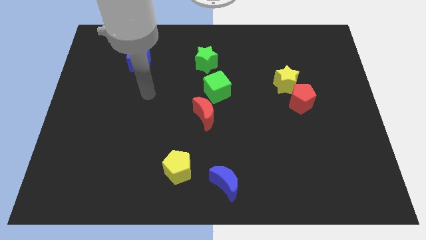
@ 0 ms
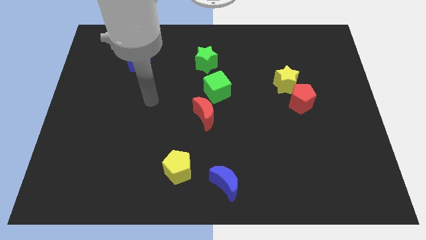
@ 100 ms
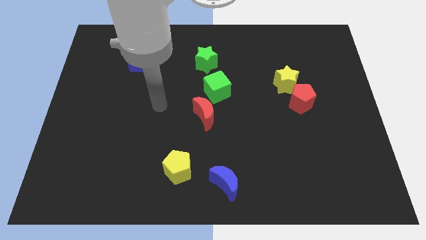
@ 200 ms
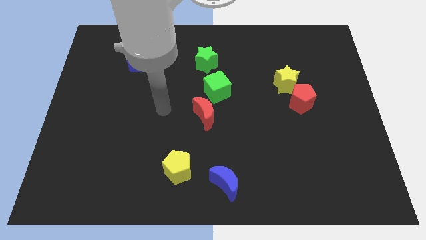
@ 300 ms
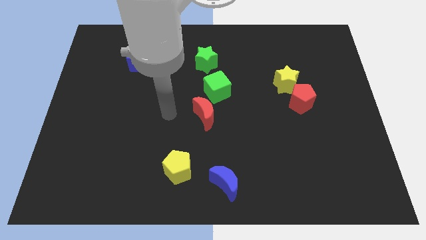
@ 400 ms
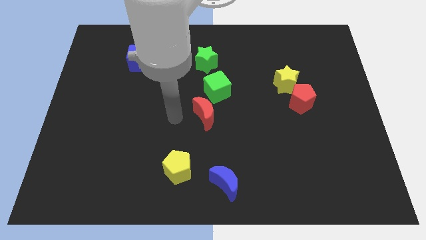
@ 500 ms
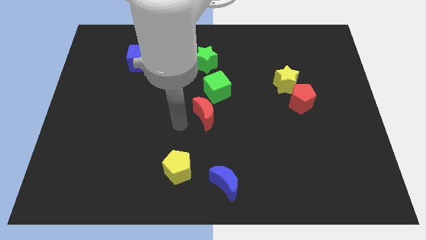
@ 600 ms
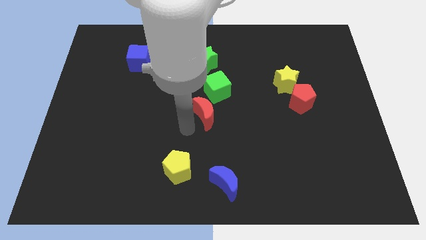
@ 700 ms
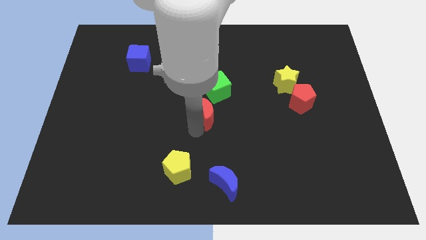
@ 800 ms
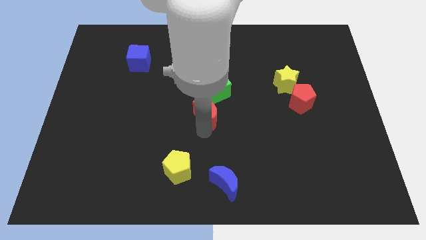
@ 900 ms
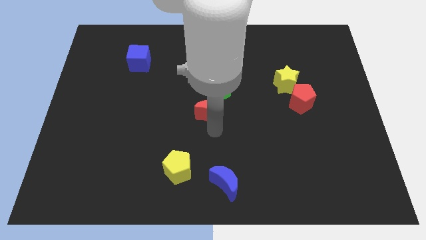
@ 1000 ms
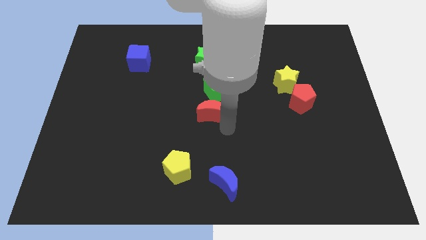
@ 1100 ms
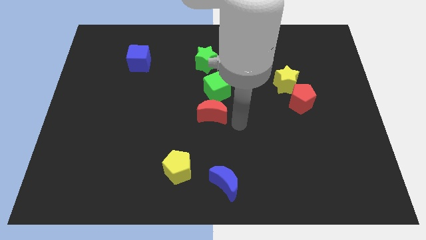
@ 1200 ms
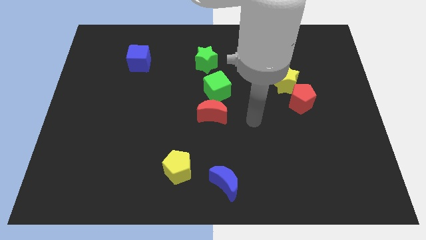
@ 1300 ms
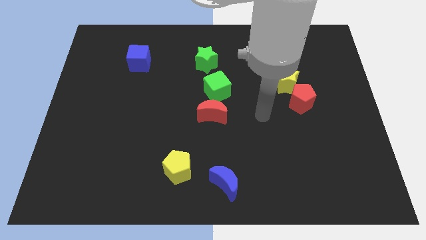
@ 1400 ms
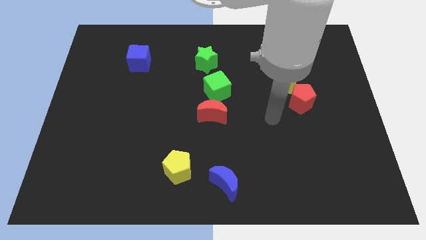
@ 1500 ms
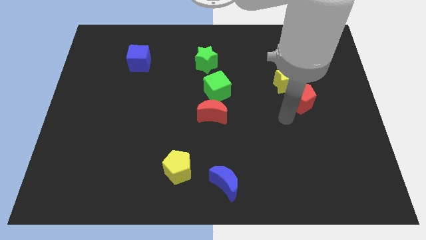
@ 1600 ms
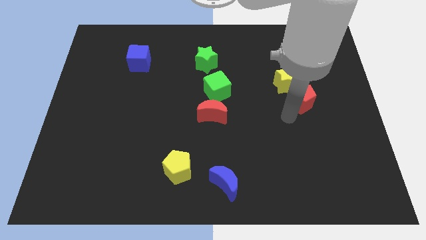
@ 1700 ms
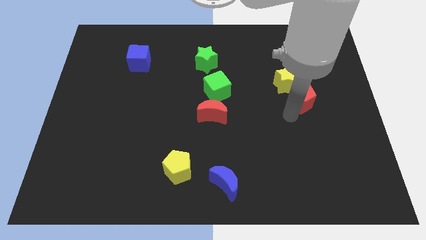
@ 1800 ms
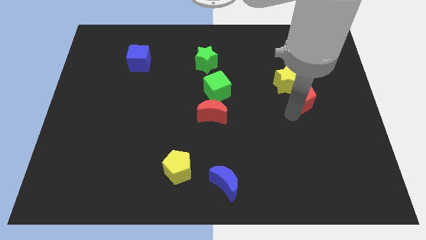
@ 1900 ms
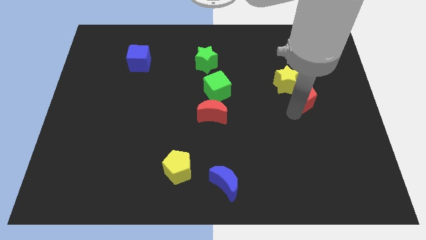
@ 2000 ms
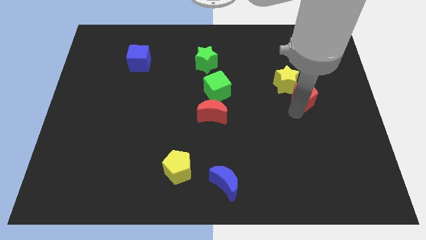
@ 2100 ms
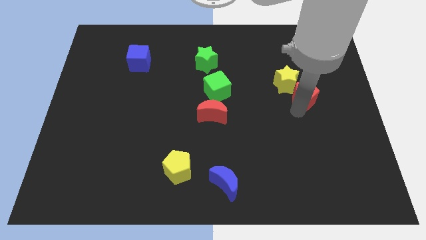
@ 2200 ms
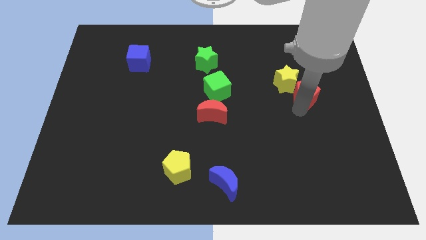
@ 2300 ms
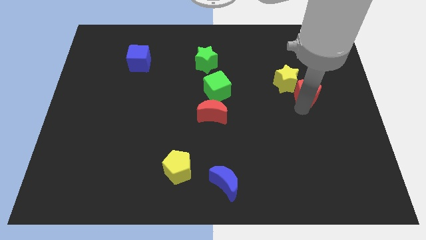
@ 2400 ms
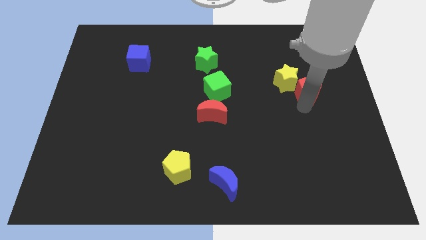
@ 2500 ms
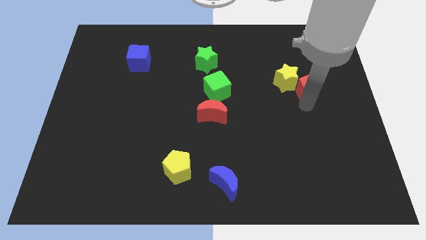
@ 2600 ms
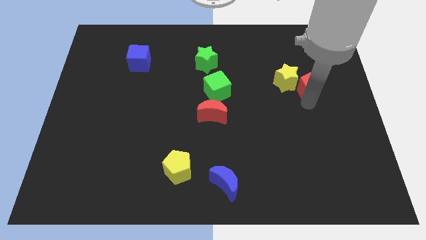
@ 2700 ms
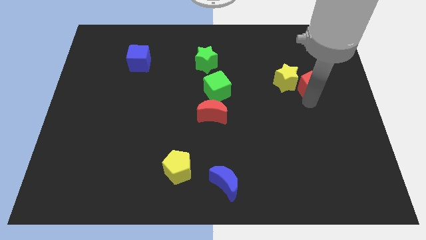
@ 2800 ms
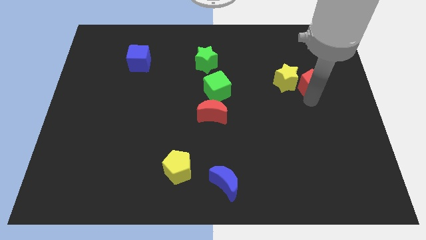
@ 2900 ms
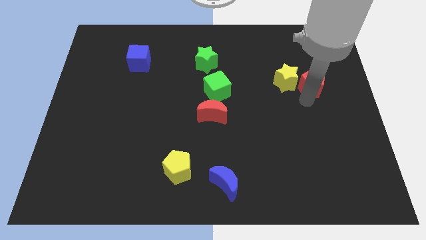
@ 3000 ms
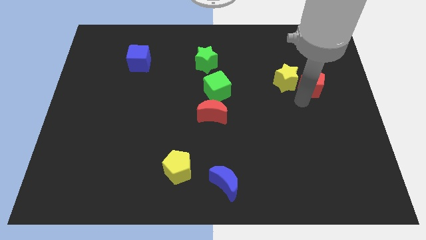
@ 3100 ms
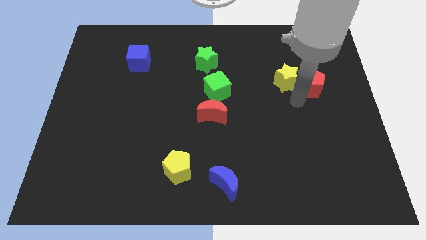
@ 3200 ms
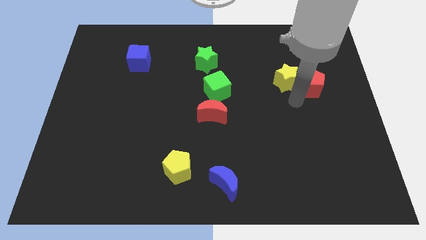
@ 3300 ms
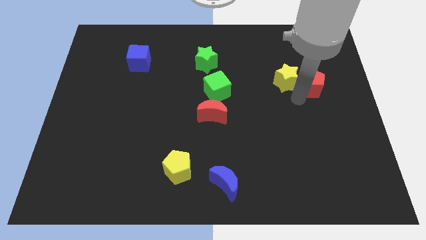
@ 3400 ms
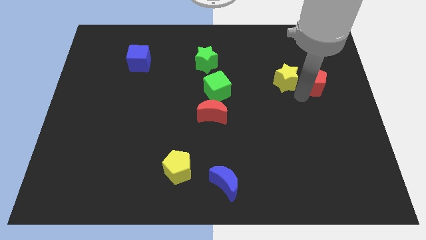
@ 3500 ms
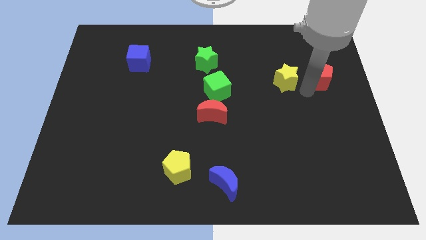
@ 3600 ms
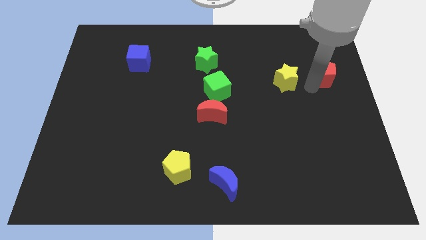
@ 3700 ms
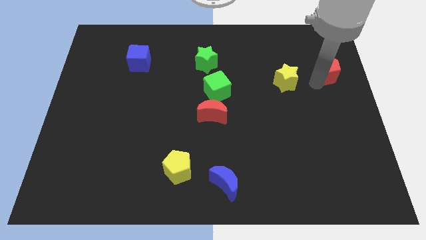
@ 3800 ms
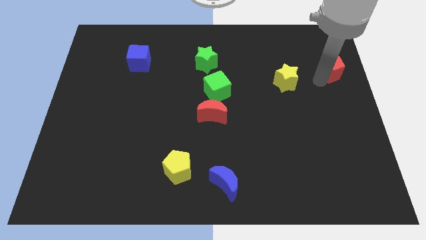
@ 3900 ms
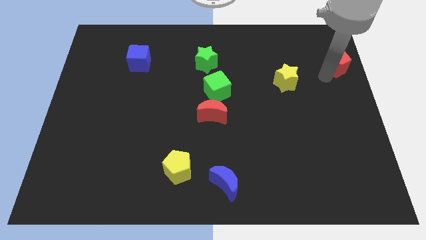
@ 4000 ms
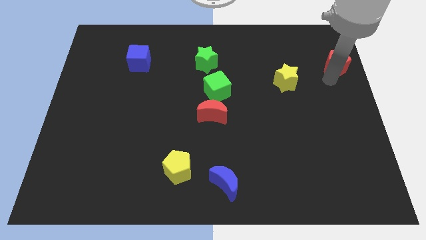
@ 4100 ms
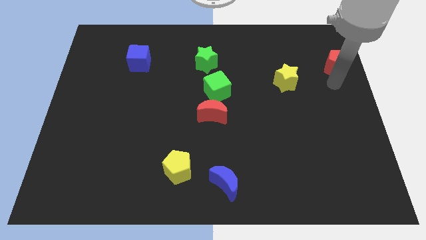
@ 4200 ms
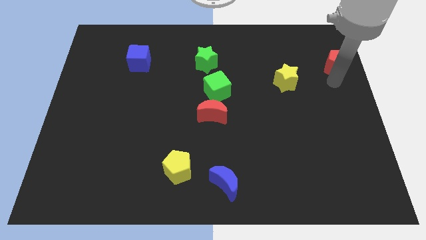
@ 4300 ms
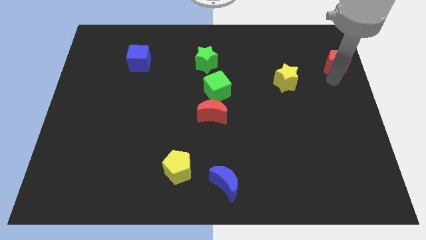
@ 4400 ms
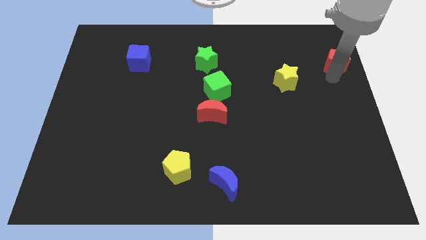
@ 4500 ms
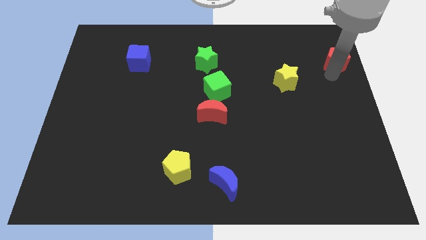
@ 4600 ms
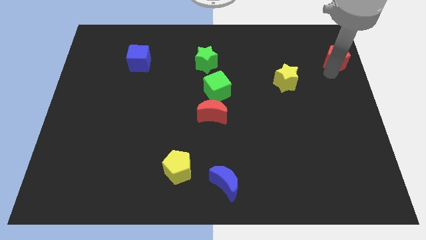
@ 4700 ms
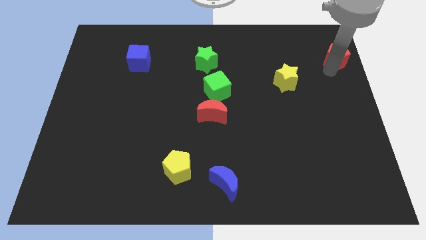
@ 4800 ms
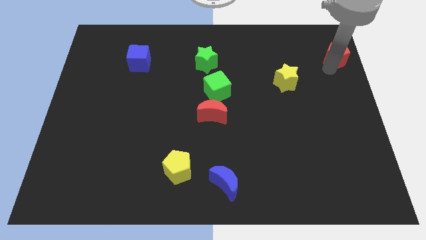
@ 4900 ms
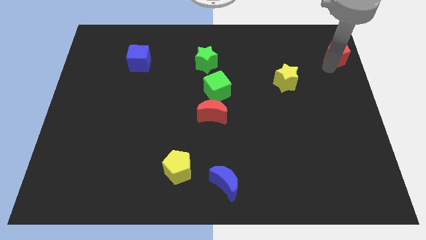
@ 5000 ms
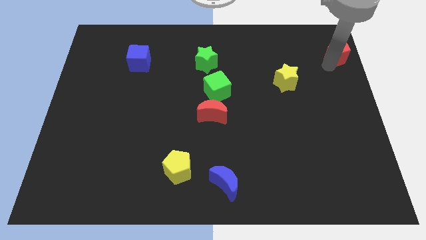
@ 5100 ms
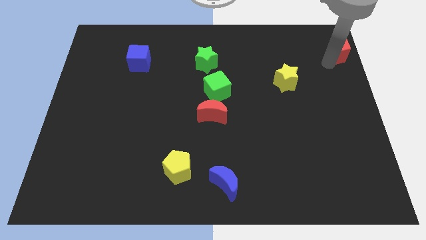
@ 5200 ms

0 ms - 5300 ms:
slide the red pentagon to the top right

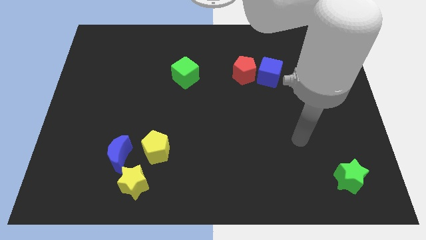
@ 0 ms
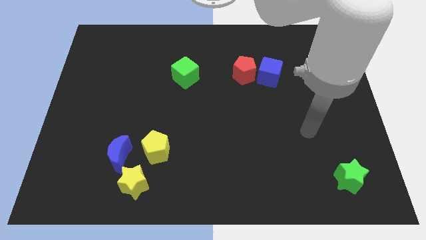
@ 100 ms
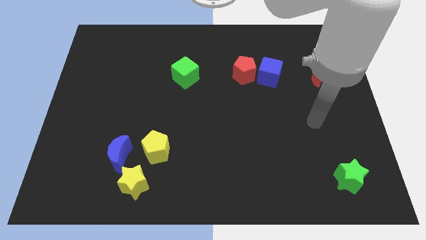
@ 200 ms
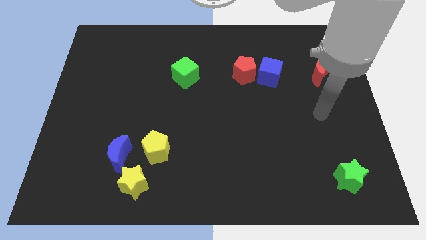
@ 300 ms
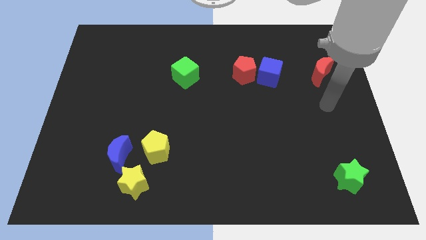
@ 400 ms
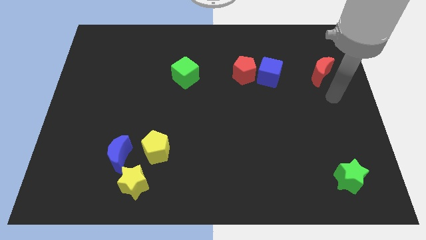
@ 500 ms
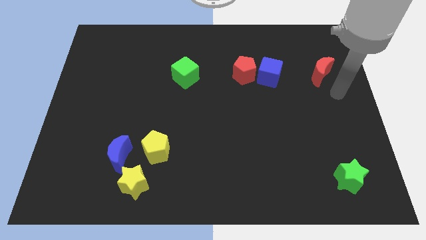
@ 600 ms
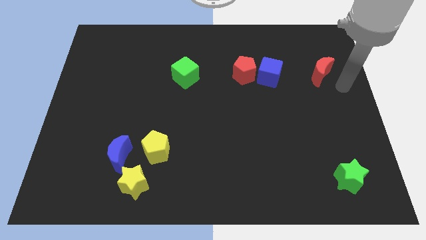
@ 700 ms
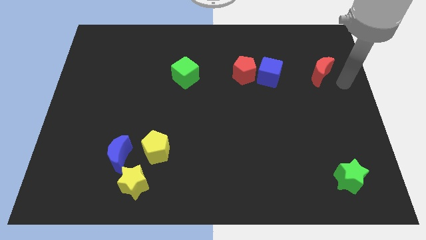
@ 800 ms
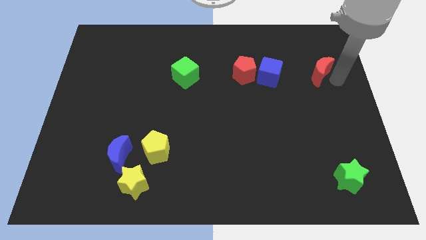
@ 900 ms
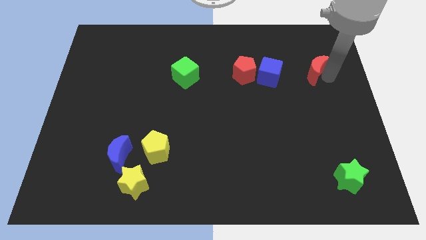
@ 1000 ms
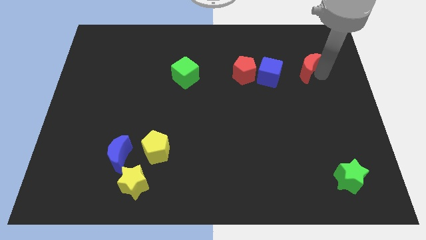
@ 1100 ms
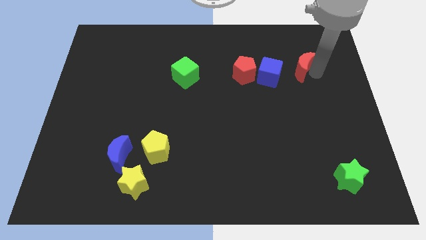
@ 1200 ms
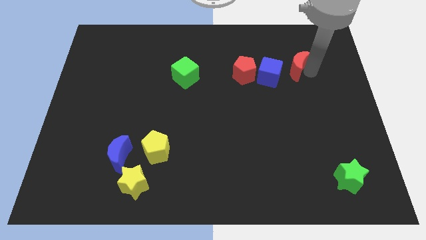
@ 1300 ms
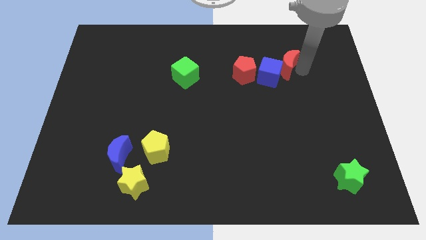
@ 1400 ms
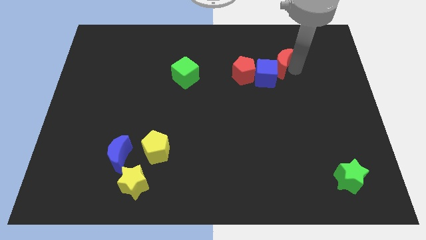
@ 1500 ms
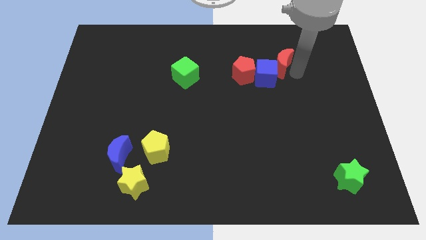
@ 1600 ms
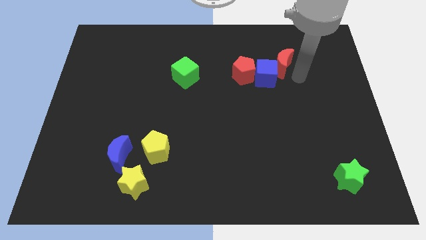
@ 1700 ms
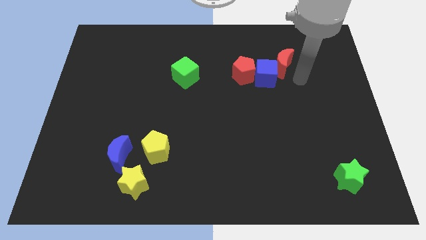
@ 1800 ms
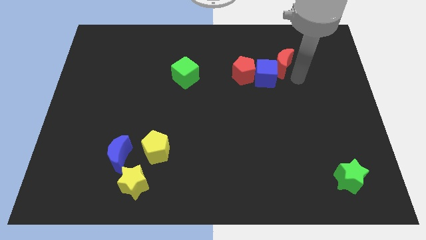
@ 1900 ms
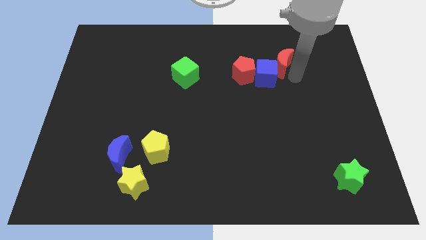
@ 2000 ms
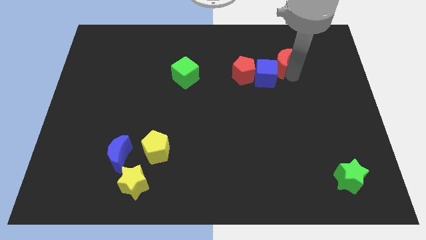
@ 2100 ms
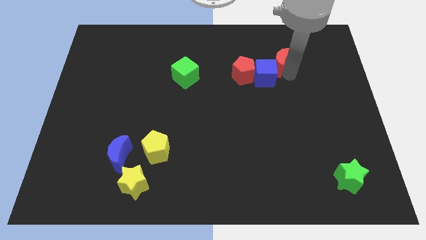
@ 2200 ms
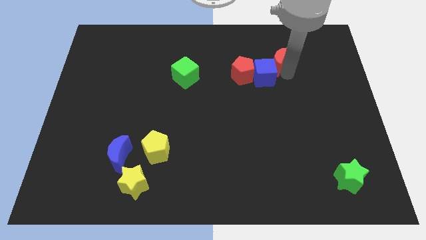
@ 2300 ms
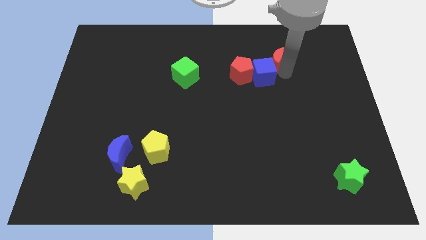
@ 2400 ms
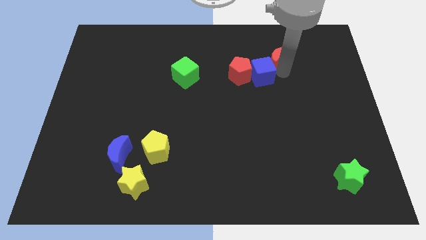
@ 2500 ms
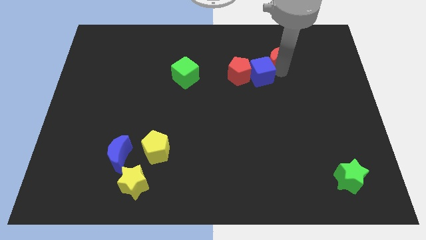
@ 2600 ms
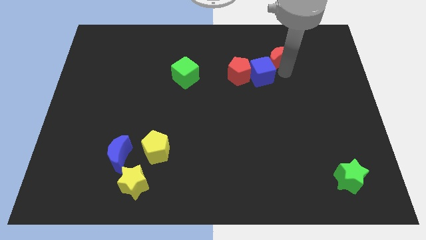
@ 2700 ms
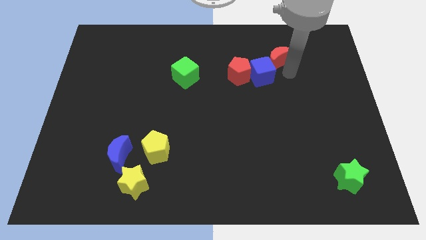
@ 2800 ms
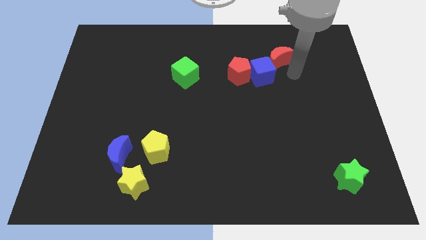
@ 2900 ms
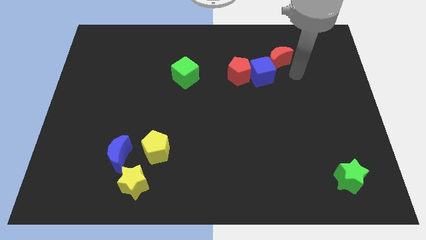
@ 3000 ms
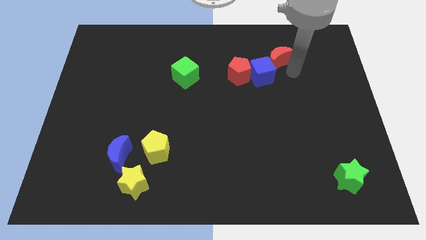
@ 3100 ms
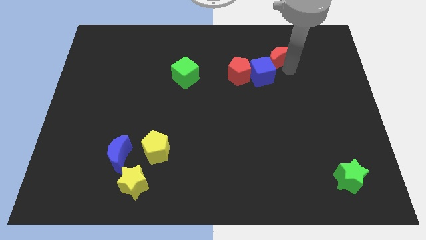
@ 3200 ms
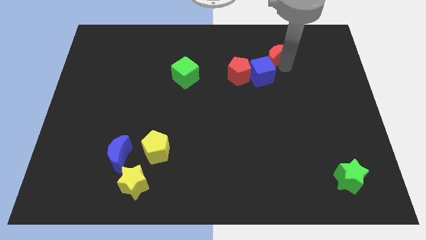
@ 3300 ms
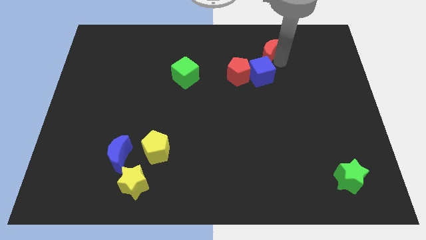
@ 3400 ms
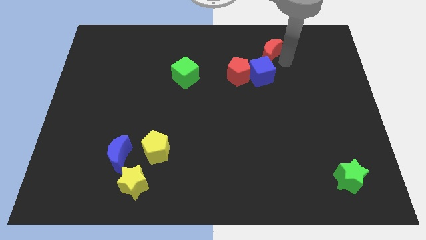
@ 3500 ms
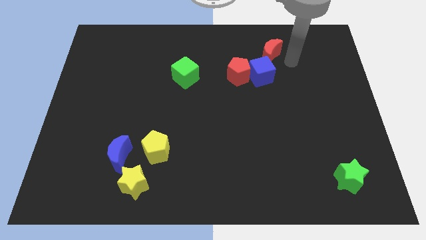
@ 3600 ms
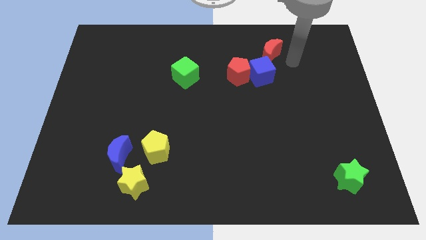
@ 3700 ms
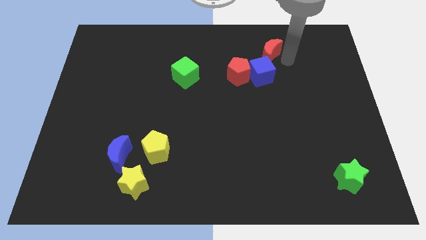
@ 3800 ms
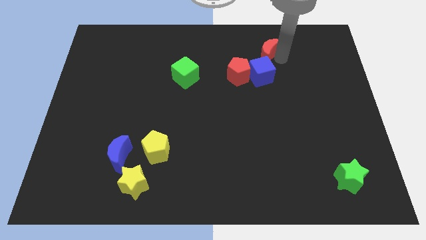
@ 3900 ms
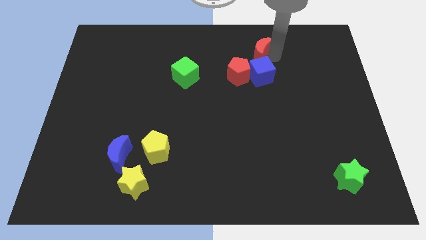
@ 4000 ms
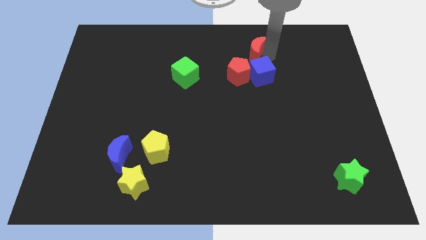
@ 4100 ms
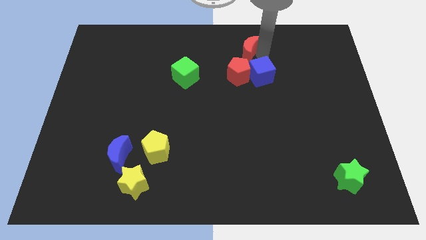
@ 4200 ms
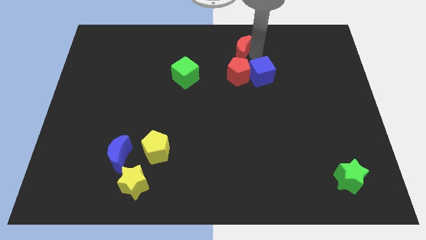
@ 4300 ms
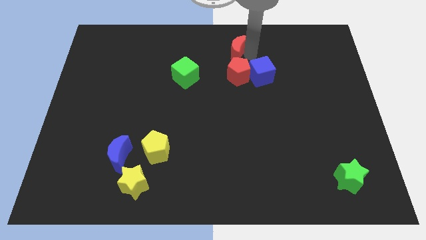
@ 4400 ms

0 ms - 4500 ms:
slide the red moon to the top side
